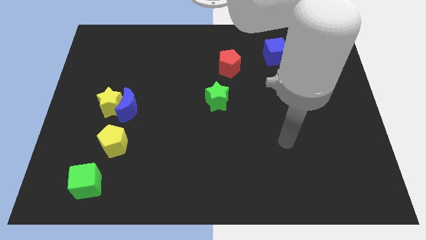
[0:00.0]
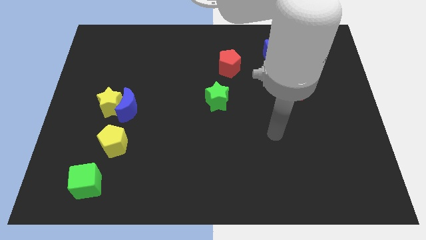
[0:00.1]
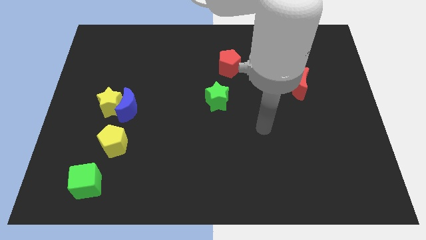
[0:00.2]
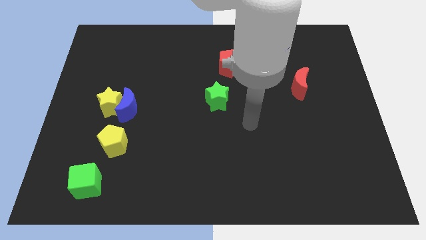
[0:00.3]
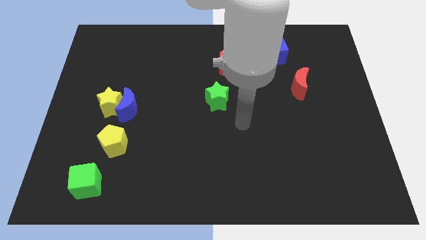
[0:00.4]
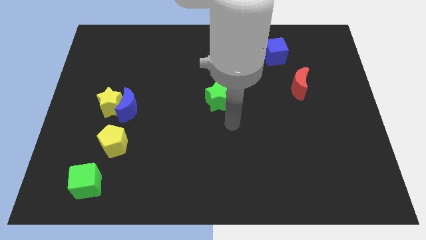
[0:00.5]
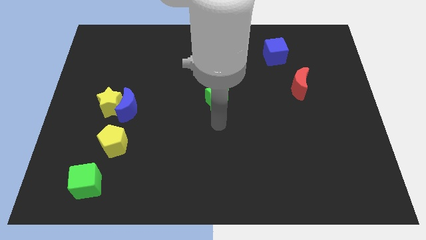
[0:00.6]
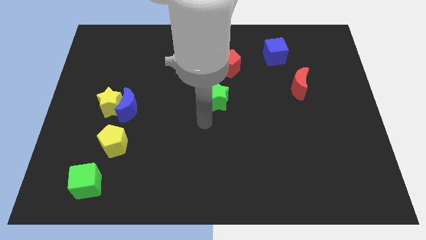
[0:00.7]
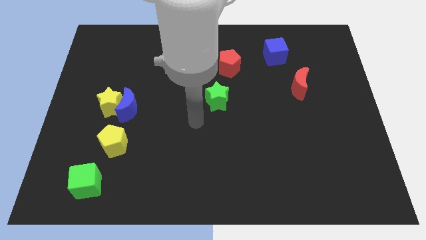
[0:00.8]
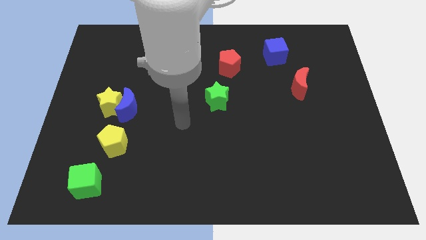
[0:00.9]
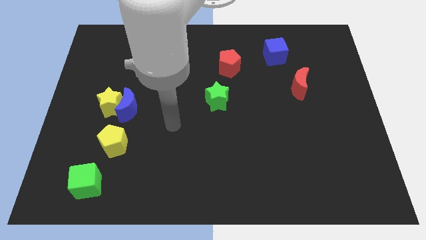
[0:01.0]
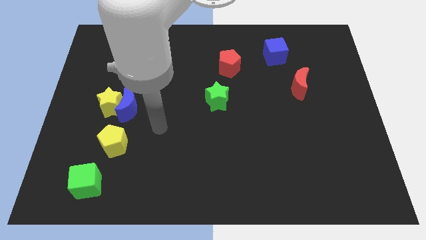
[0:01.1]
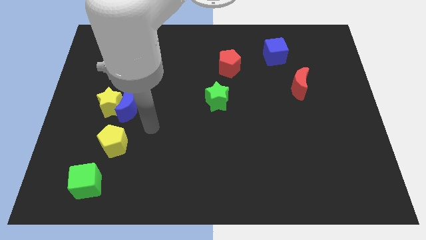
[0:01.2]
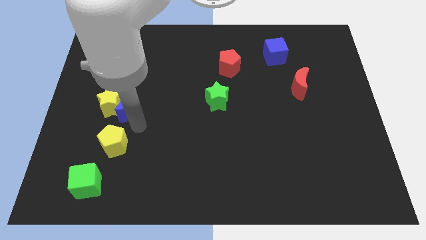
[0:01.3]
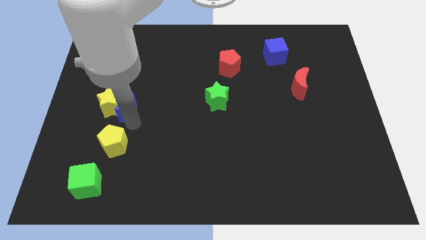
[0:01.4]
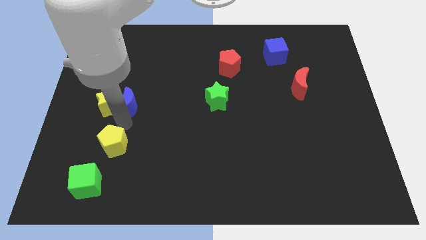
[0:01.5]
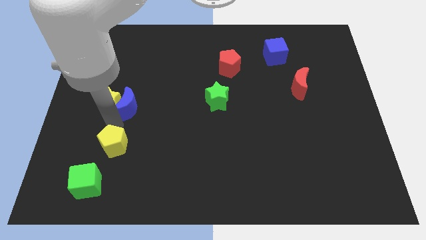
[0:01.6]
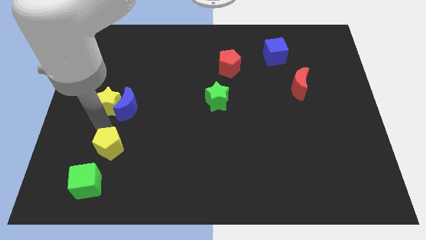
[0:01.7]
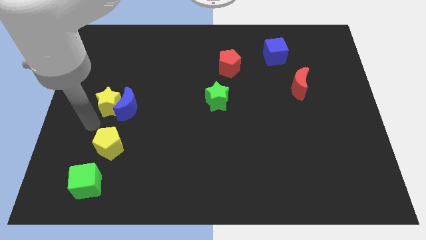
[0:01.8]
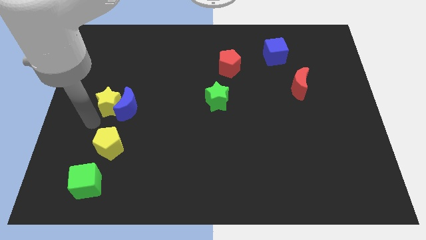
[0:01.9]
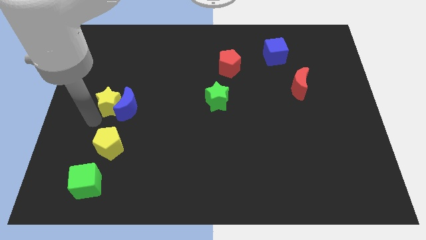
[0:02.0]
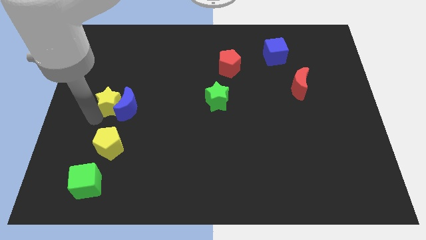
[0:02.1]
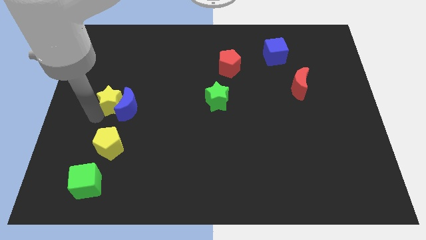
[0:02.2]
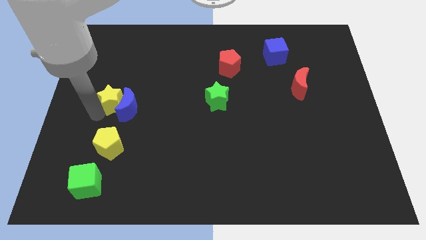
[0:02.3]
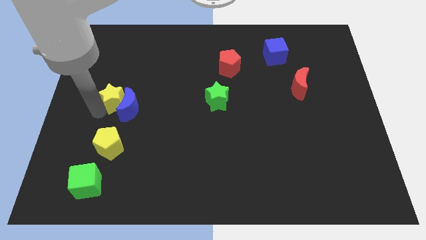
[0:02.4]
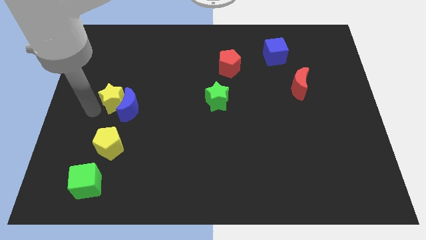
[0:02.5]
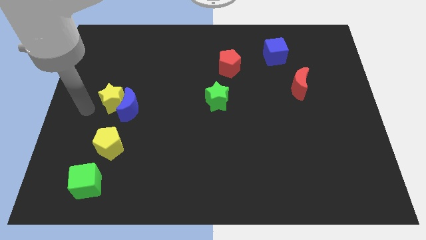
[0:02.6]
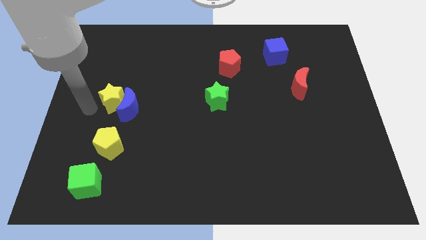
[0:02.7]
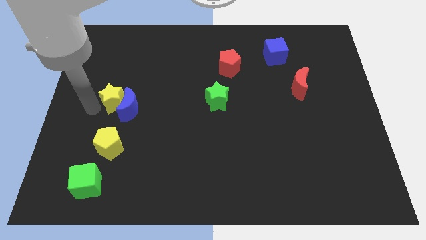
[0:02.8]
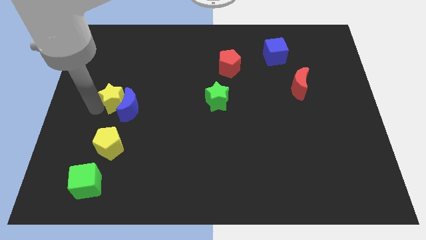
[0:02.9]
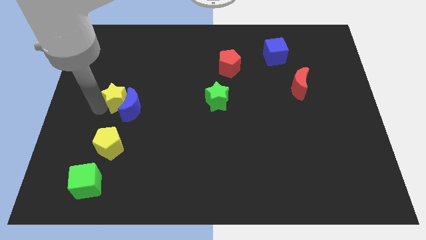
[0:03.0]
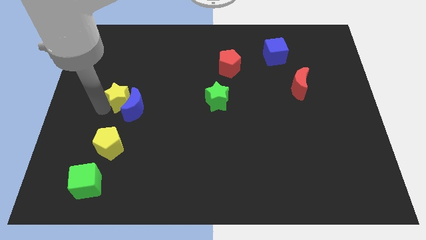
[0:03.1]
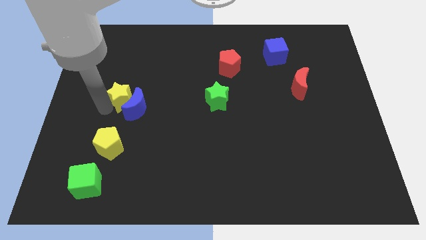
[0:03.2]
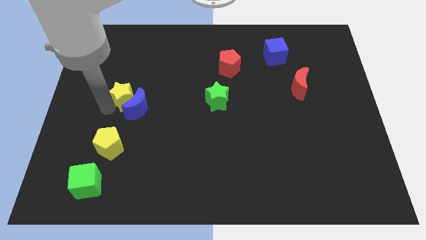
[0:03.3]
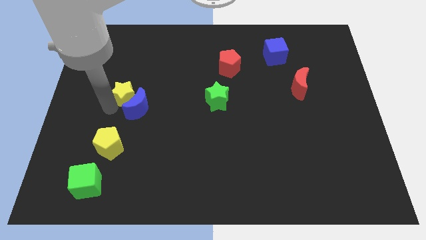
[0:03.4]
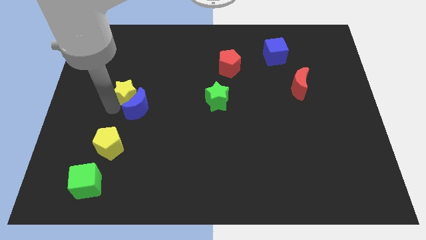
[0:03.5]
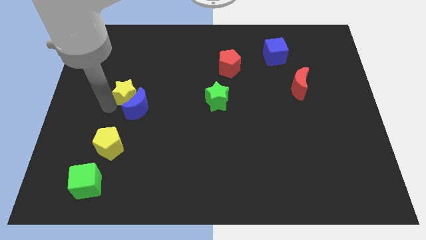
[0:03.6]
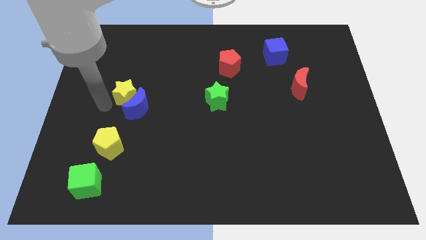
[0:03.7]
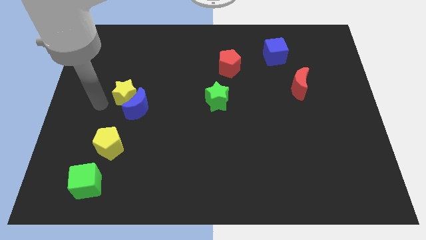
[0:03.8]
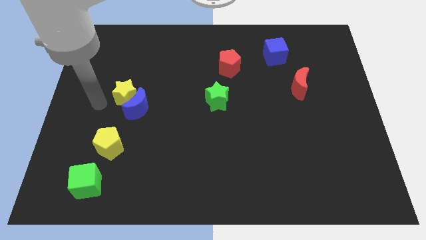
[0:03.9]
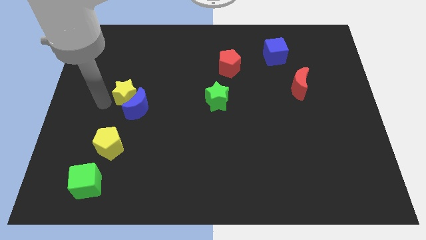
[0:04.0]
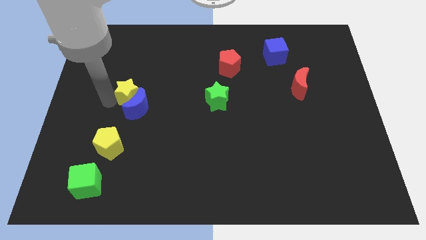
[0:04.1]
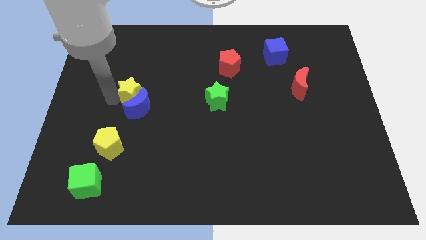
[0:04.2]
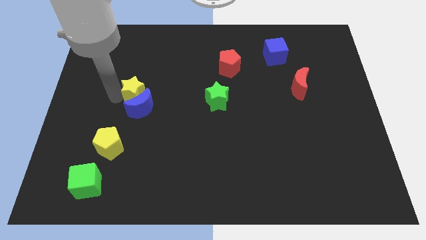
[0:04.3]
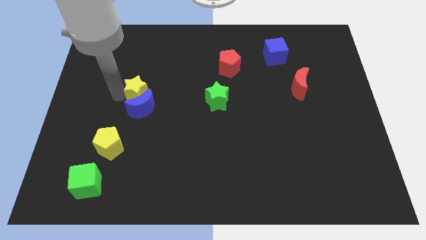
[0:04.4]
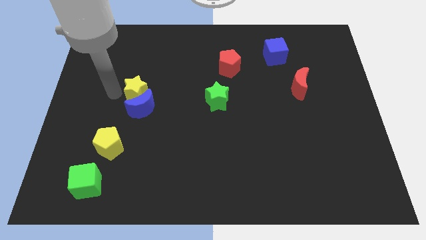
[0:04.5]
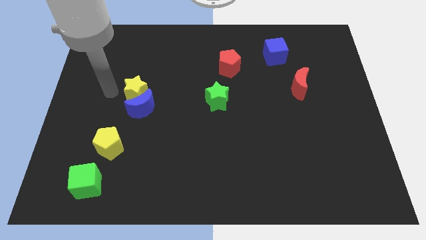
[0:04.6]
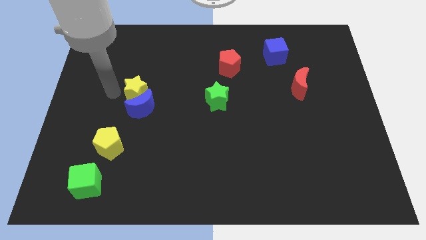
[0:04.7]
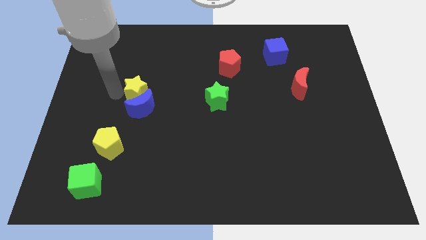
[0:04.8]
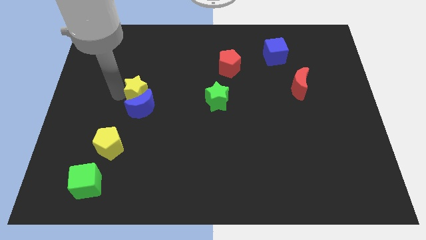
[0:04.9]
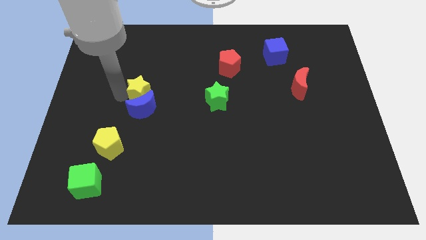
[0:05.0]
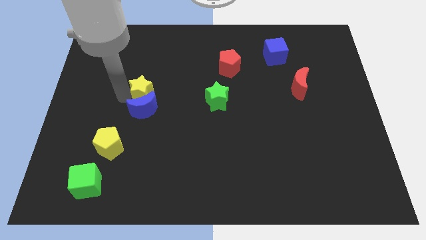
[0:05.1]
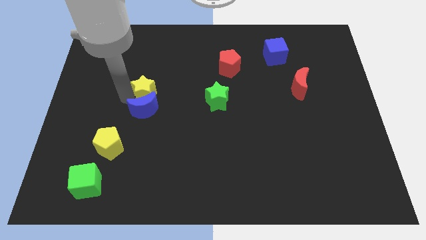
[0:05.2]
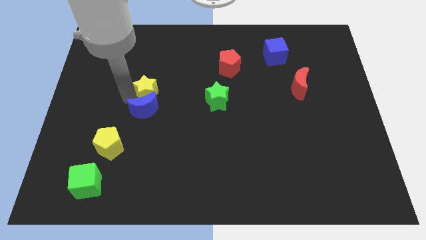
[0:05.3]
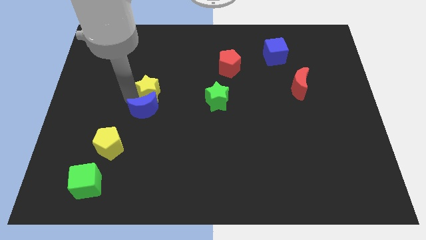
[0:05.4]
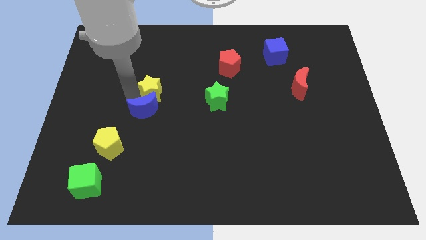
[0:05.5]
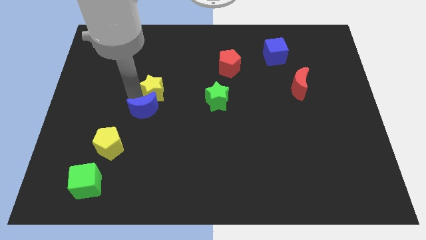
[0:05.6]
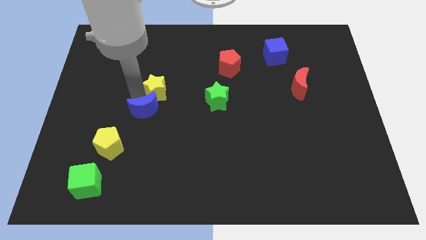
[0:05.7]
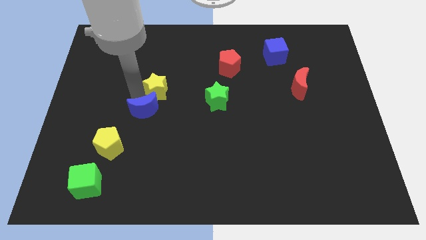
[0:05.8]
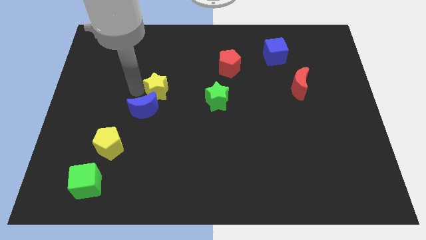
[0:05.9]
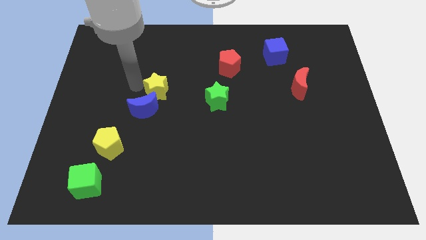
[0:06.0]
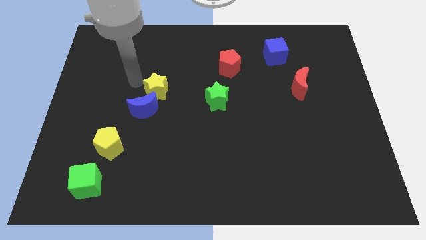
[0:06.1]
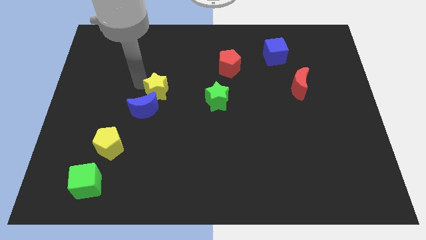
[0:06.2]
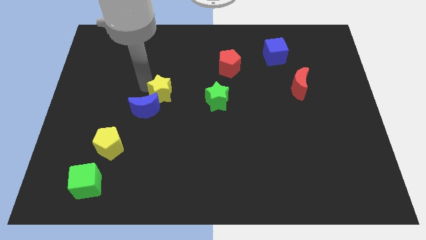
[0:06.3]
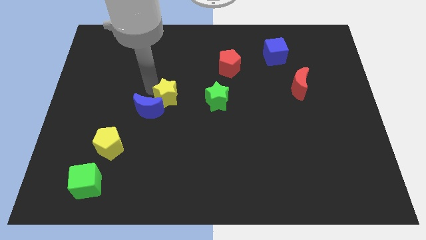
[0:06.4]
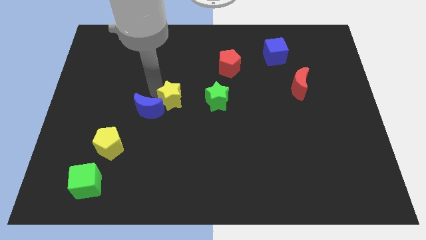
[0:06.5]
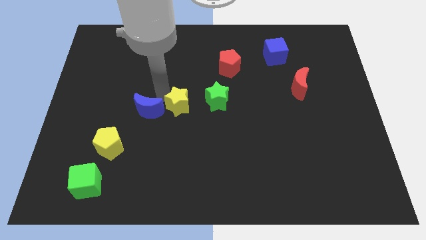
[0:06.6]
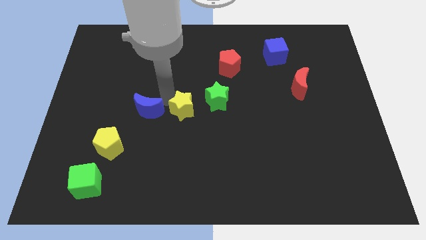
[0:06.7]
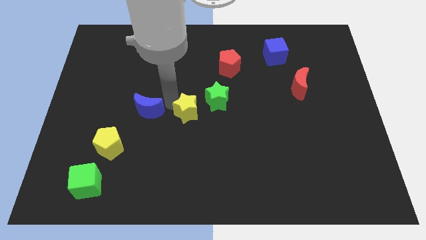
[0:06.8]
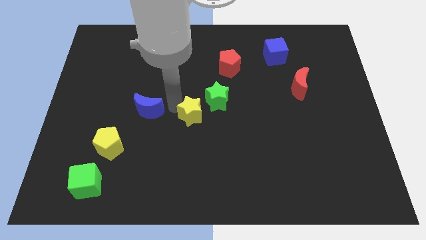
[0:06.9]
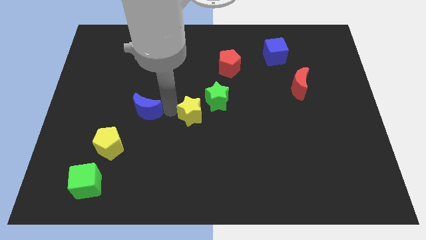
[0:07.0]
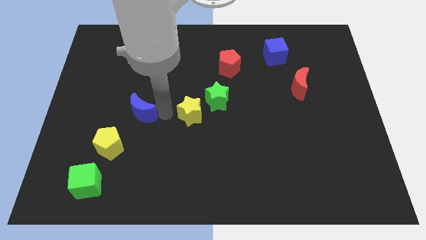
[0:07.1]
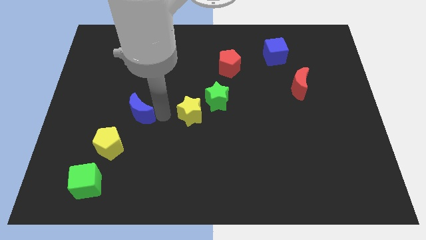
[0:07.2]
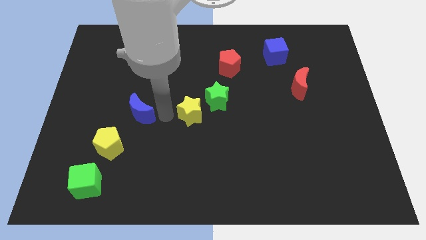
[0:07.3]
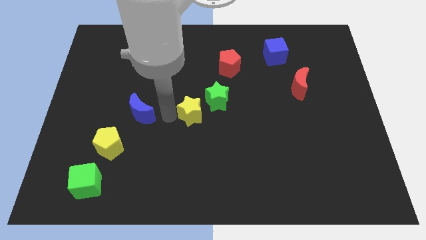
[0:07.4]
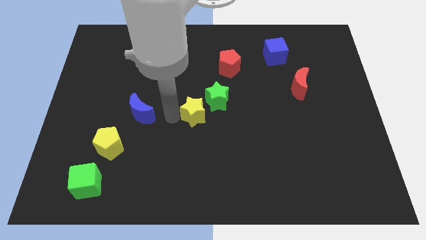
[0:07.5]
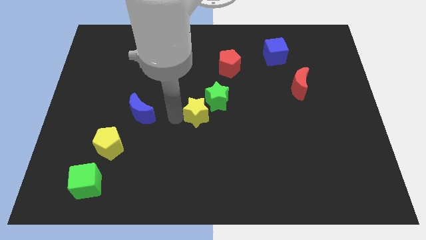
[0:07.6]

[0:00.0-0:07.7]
move the yellow star right

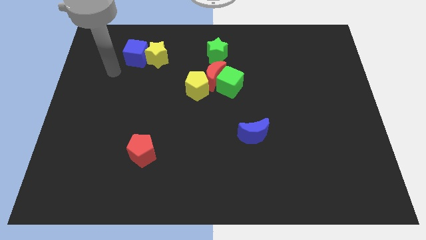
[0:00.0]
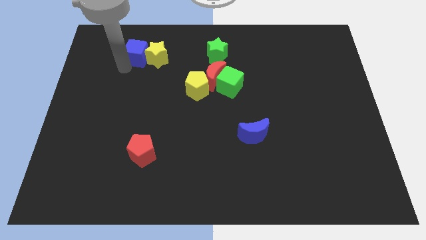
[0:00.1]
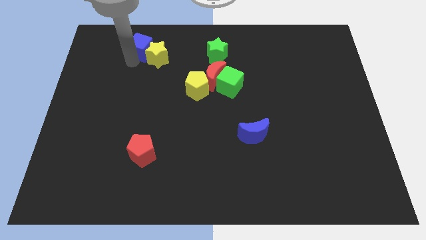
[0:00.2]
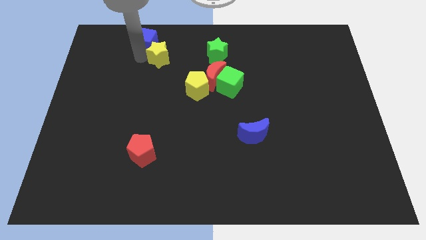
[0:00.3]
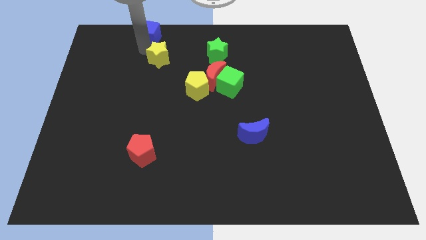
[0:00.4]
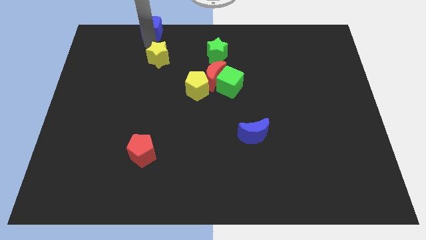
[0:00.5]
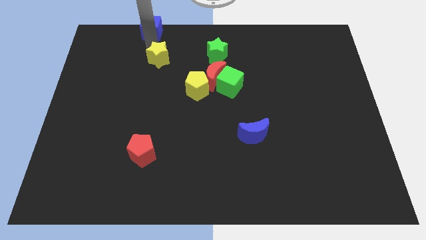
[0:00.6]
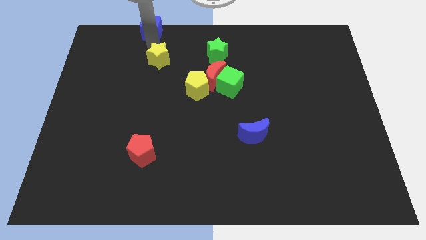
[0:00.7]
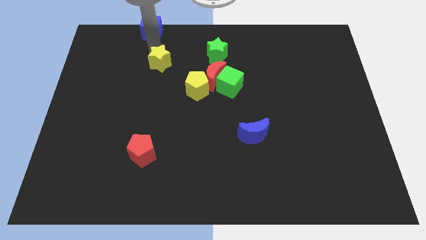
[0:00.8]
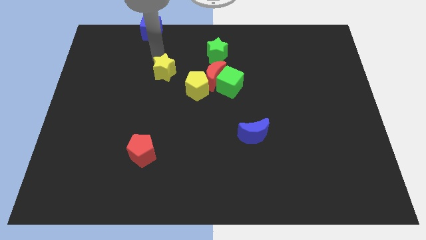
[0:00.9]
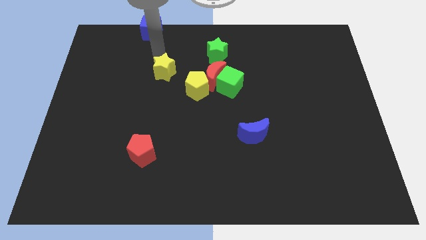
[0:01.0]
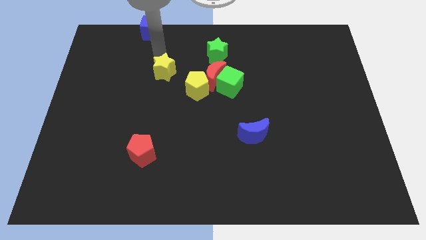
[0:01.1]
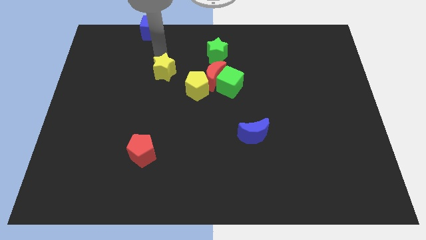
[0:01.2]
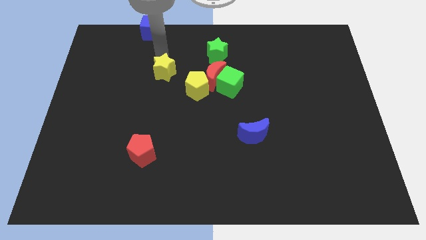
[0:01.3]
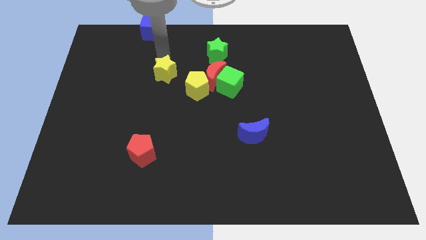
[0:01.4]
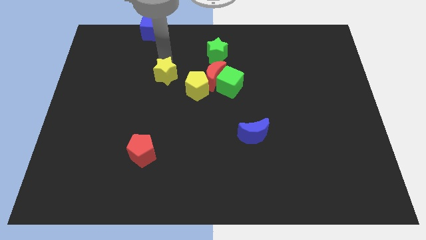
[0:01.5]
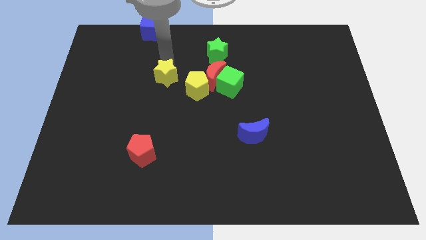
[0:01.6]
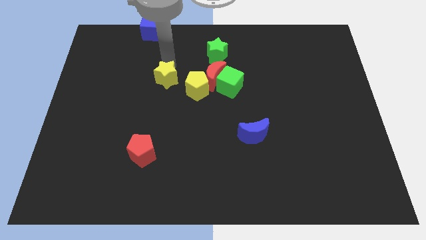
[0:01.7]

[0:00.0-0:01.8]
push the yellow star downwards and to the right diagonally a bit
